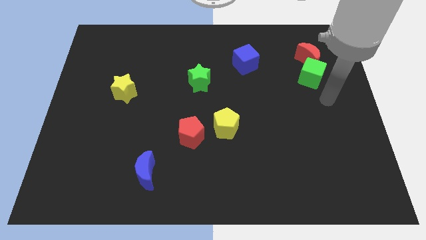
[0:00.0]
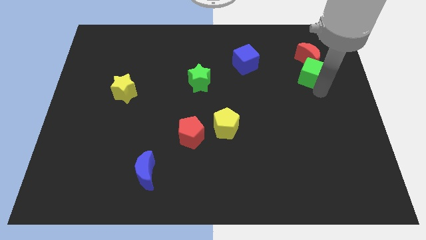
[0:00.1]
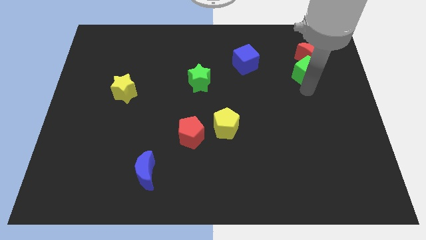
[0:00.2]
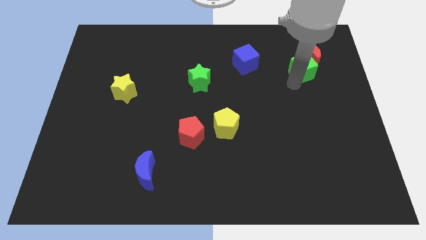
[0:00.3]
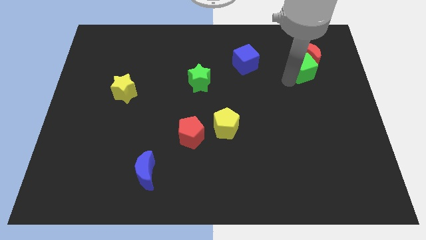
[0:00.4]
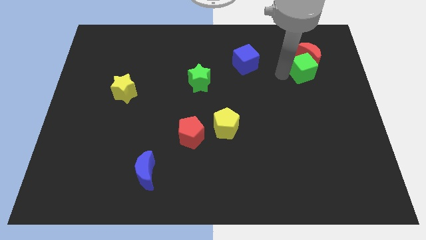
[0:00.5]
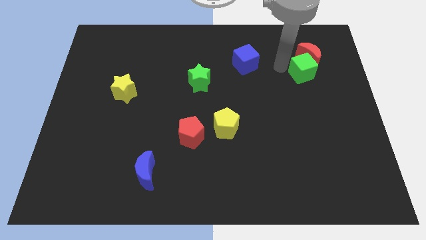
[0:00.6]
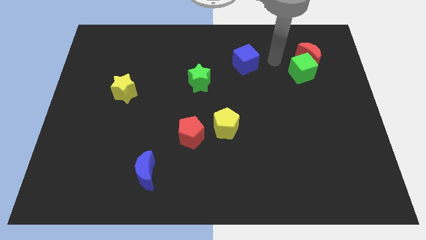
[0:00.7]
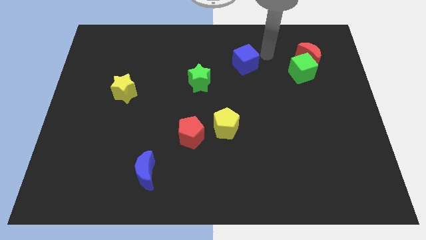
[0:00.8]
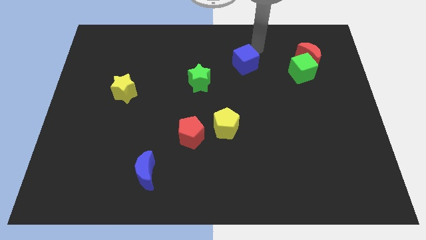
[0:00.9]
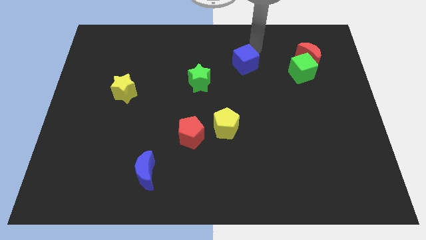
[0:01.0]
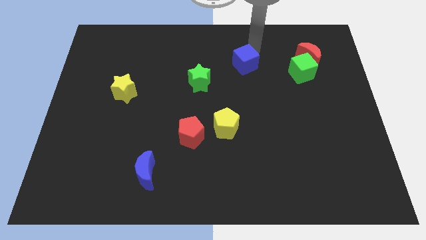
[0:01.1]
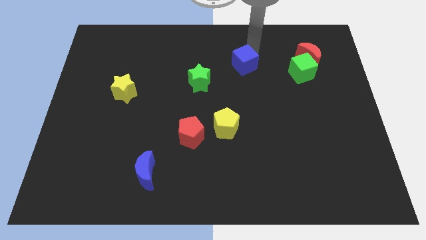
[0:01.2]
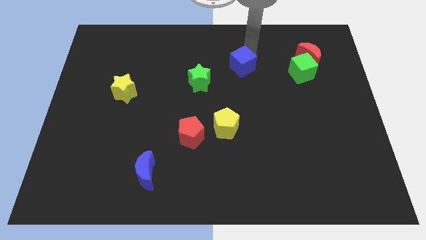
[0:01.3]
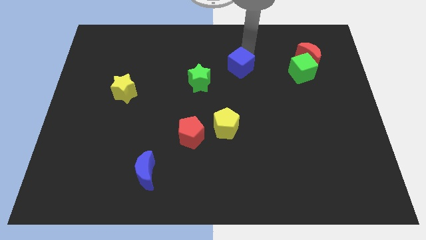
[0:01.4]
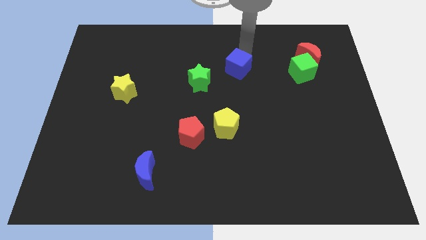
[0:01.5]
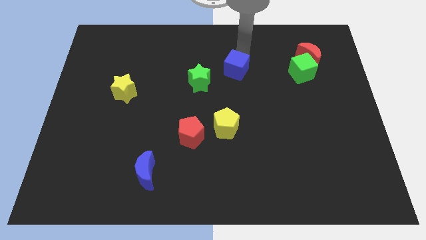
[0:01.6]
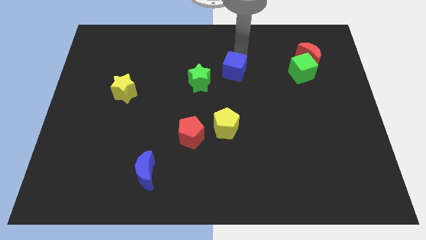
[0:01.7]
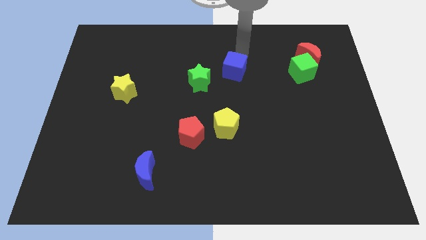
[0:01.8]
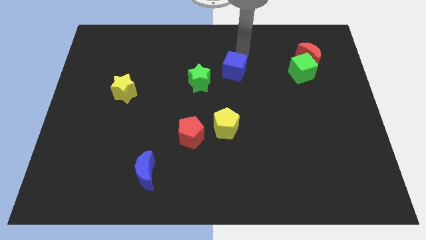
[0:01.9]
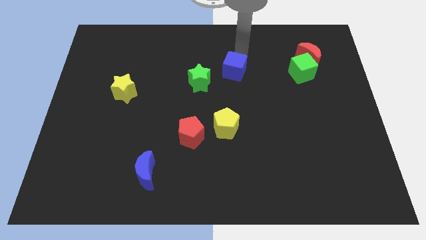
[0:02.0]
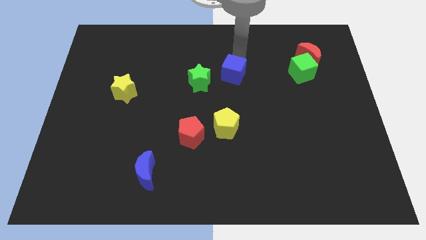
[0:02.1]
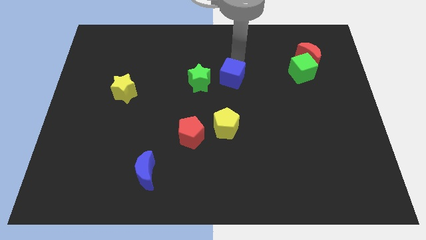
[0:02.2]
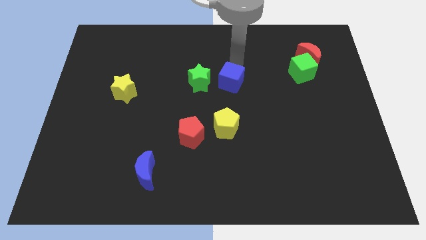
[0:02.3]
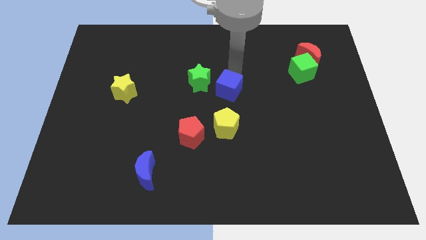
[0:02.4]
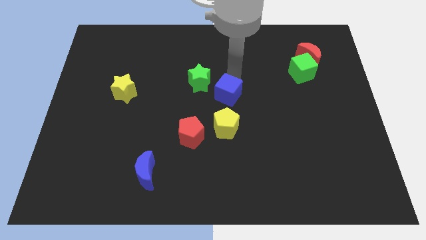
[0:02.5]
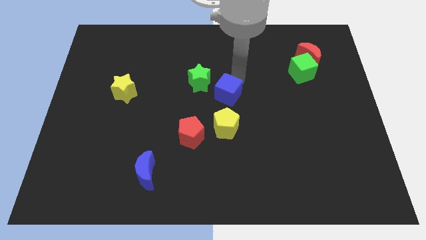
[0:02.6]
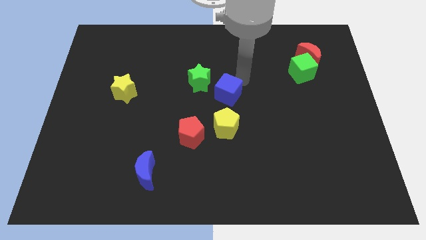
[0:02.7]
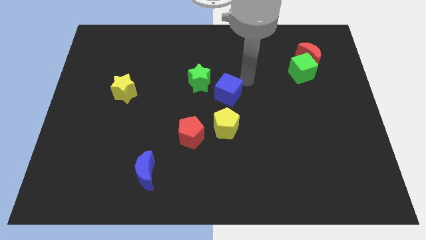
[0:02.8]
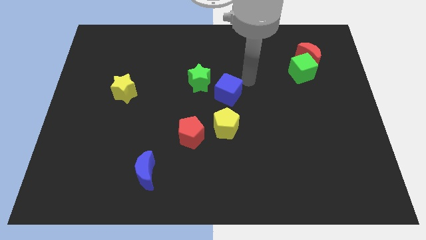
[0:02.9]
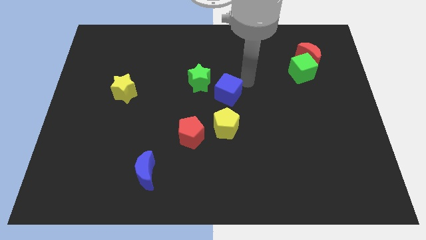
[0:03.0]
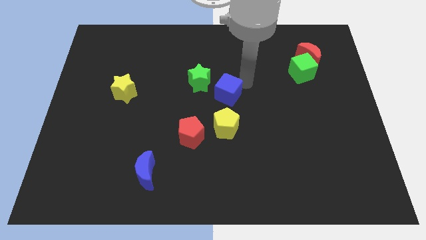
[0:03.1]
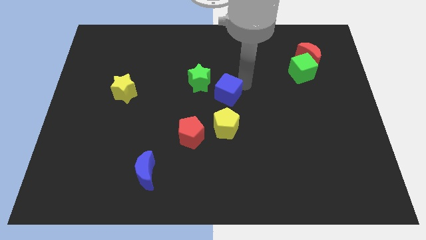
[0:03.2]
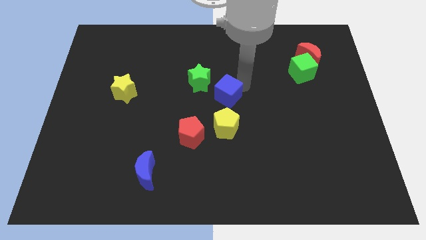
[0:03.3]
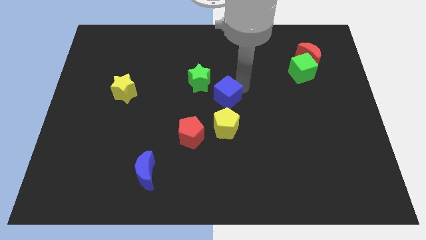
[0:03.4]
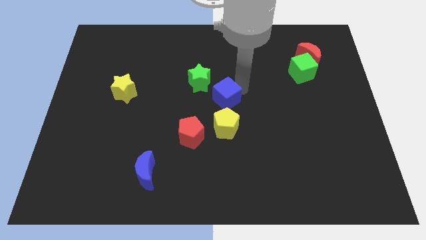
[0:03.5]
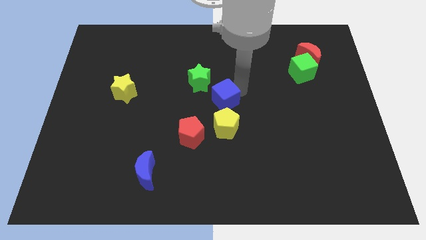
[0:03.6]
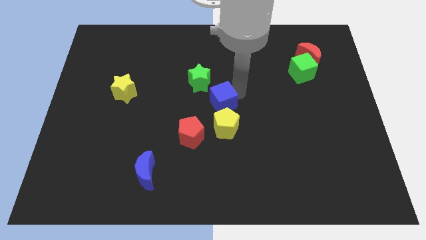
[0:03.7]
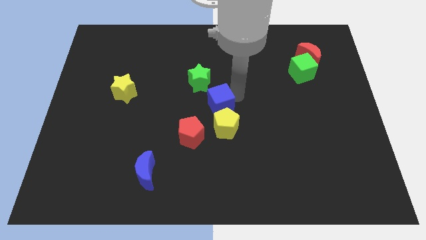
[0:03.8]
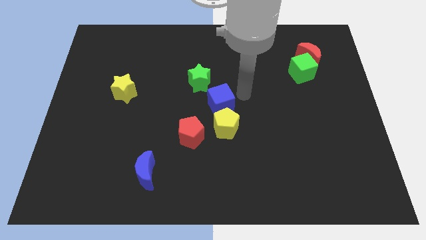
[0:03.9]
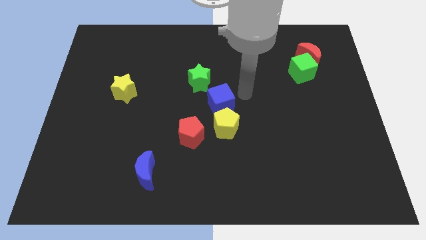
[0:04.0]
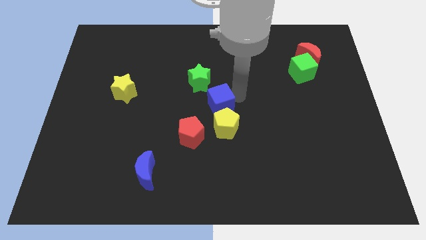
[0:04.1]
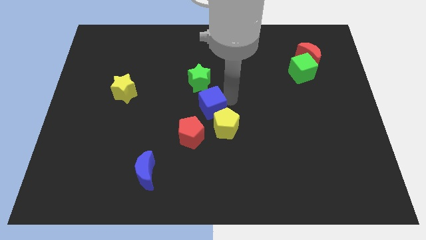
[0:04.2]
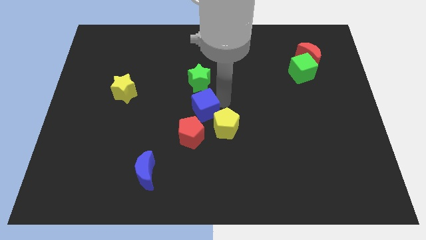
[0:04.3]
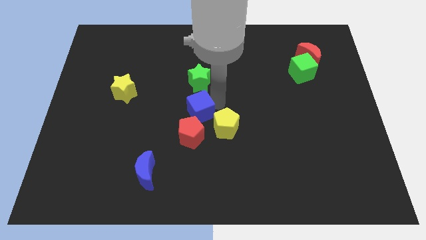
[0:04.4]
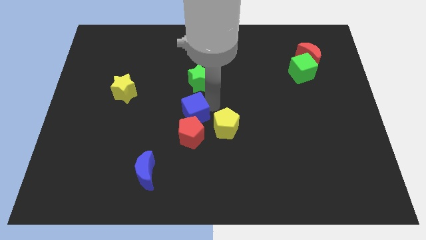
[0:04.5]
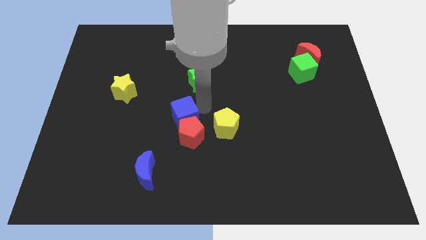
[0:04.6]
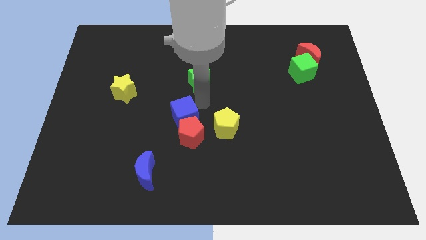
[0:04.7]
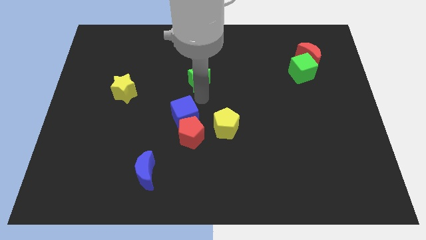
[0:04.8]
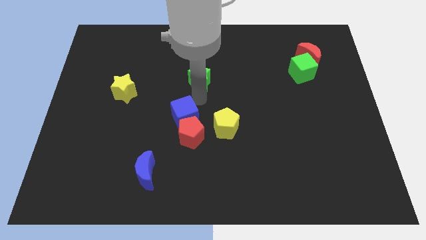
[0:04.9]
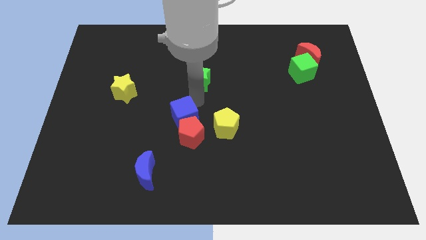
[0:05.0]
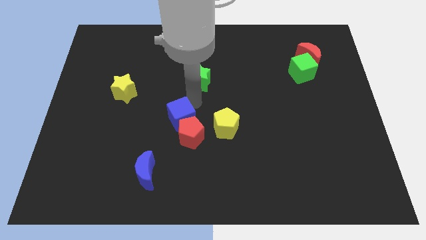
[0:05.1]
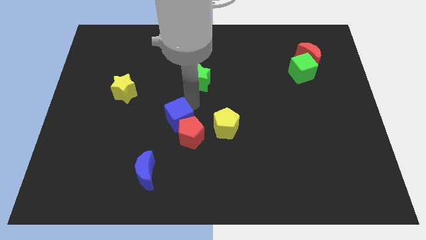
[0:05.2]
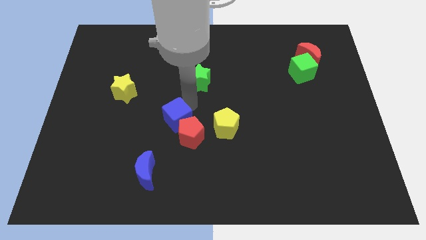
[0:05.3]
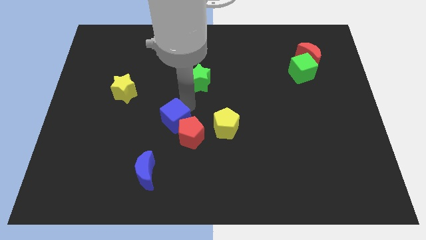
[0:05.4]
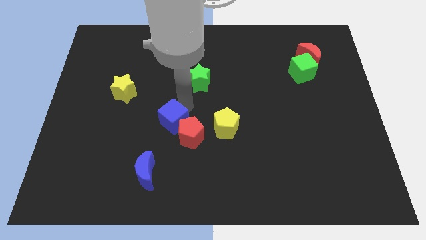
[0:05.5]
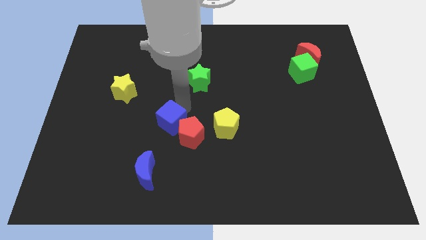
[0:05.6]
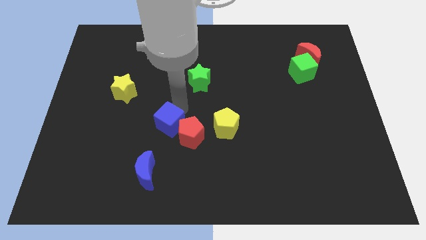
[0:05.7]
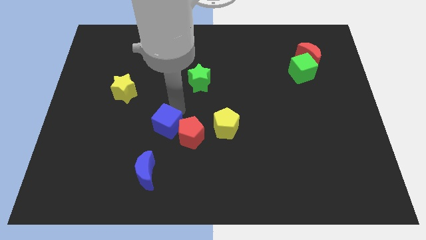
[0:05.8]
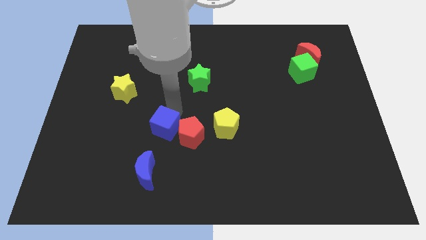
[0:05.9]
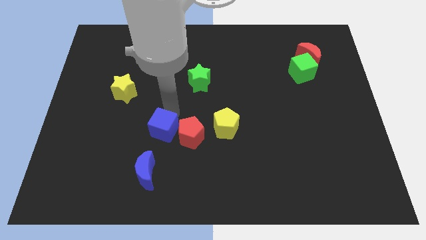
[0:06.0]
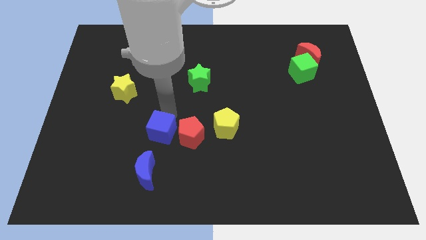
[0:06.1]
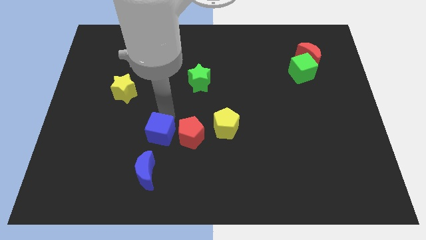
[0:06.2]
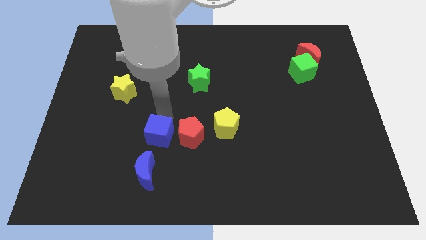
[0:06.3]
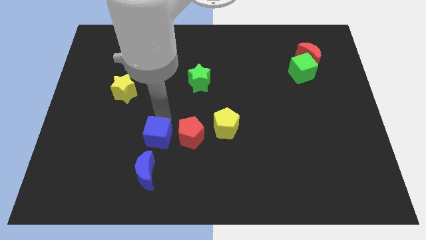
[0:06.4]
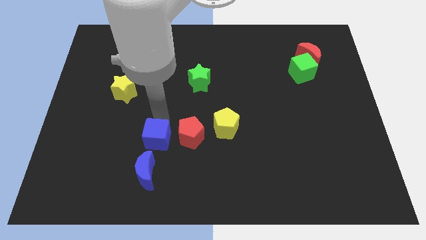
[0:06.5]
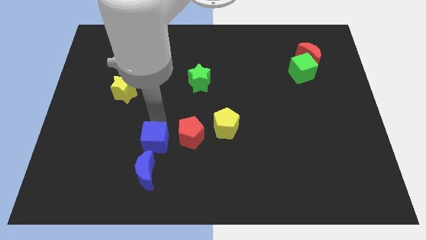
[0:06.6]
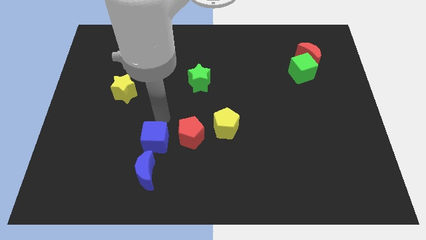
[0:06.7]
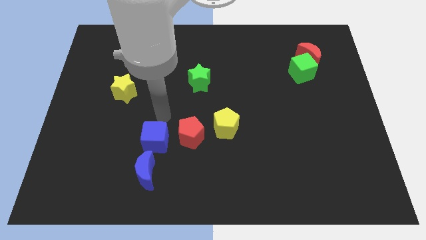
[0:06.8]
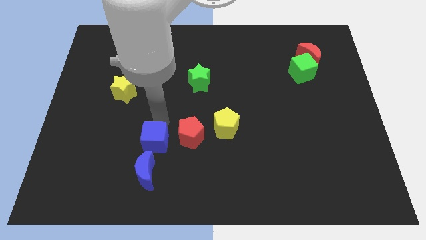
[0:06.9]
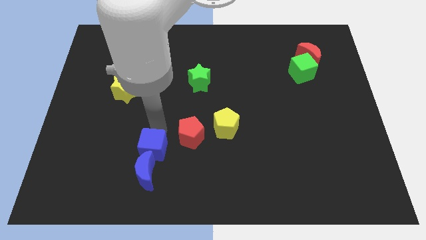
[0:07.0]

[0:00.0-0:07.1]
move the blue cube to the blue moon
